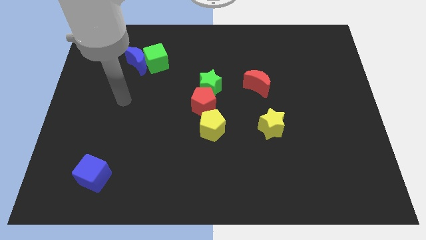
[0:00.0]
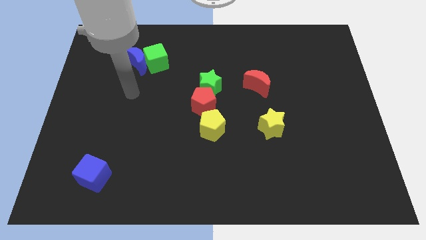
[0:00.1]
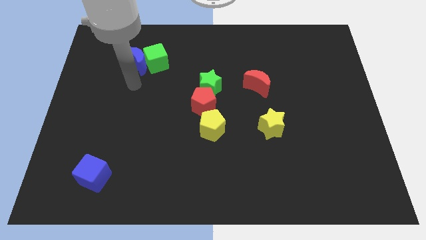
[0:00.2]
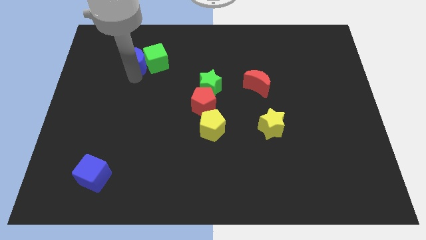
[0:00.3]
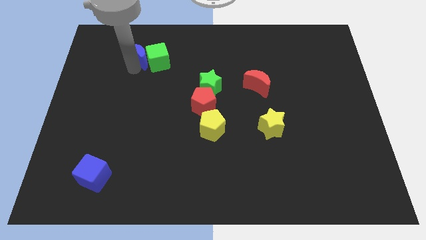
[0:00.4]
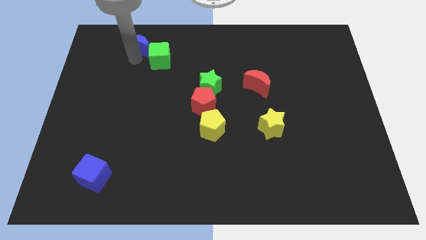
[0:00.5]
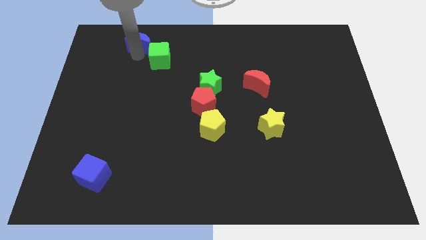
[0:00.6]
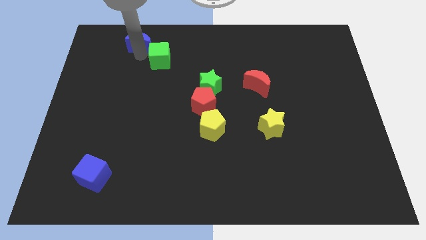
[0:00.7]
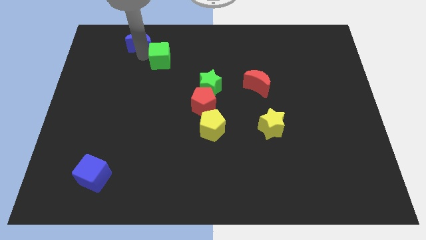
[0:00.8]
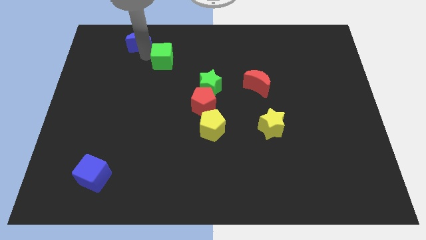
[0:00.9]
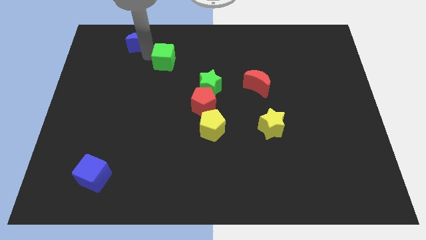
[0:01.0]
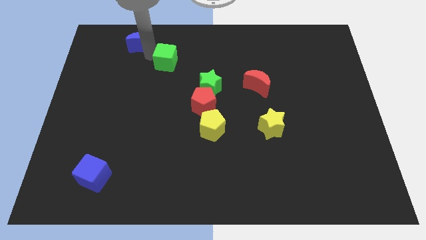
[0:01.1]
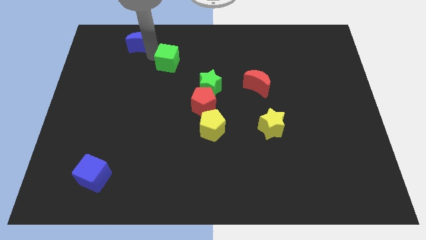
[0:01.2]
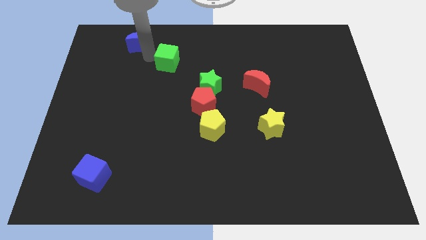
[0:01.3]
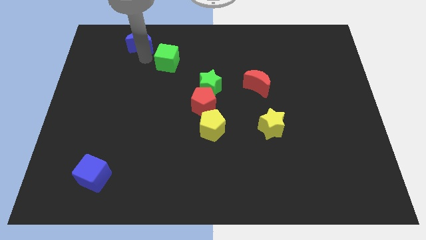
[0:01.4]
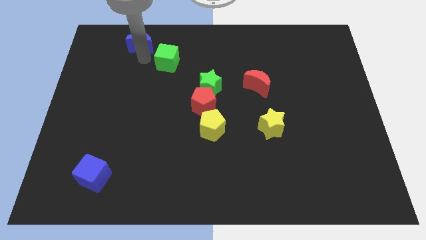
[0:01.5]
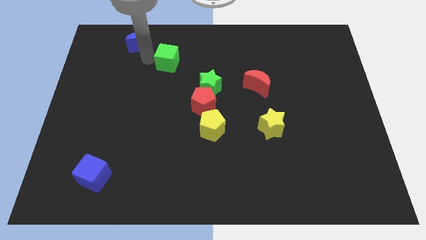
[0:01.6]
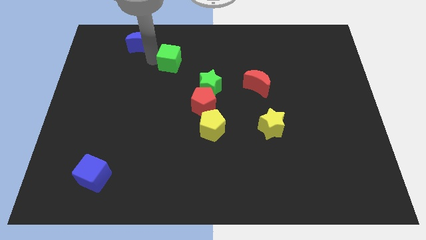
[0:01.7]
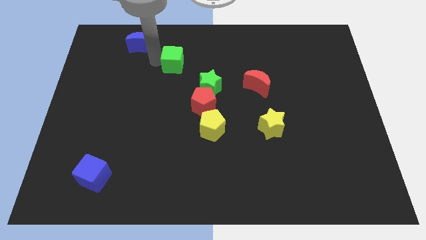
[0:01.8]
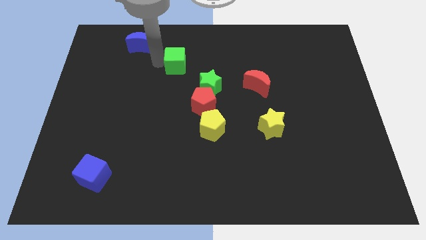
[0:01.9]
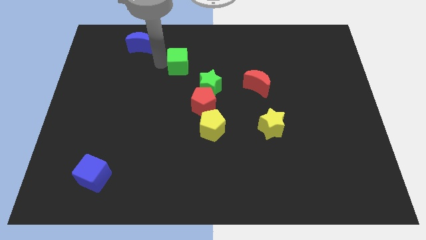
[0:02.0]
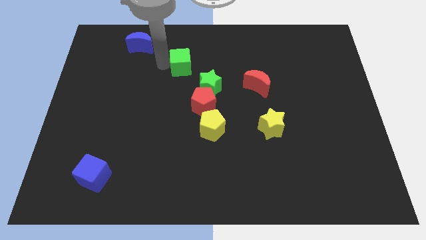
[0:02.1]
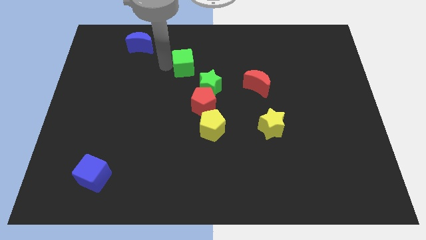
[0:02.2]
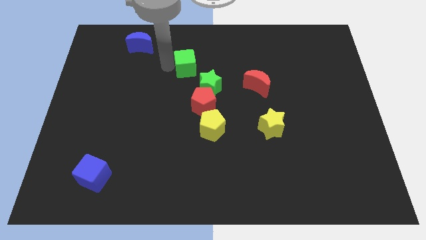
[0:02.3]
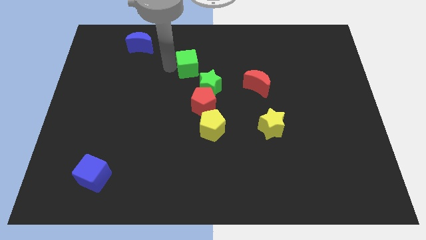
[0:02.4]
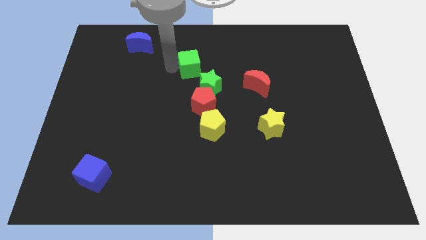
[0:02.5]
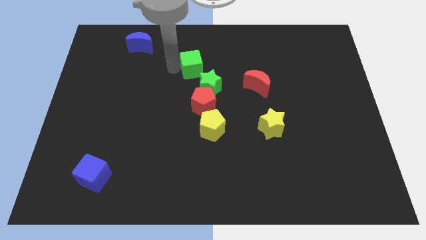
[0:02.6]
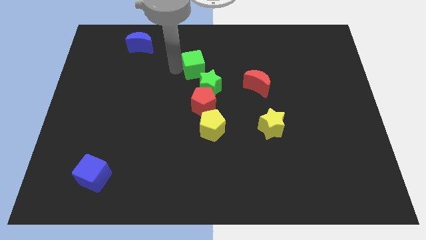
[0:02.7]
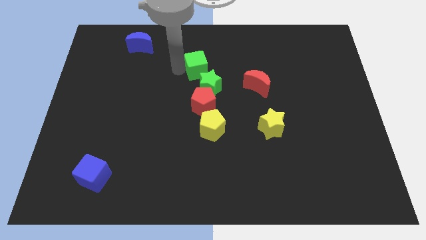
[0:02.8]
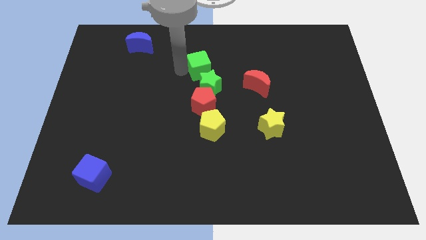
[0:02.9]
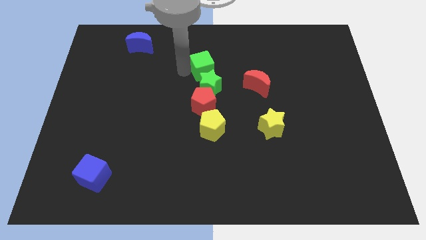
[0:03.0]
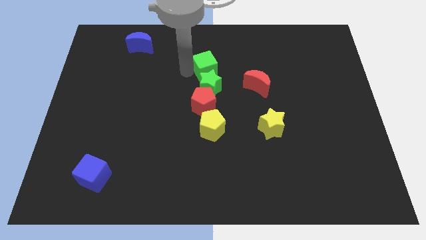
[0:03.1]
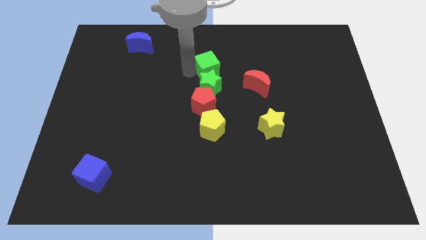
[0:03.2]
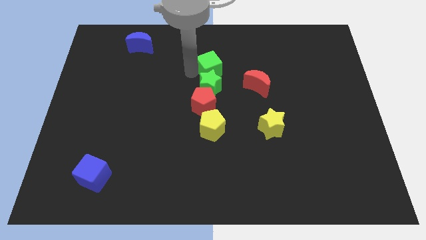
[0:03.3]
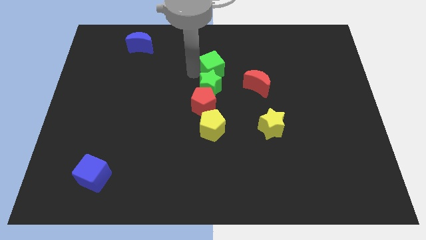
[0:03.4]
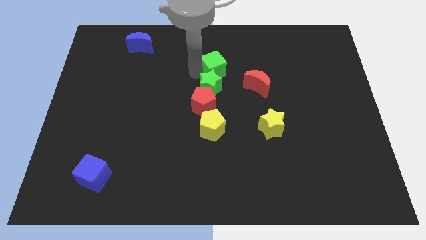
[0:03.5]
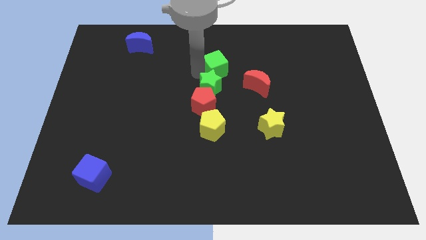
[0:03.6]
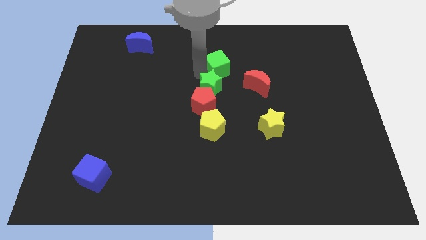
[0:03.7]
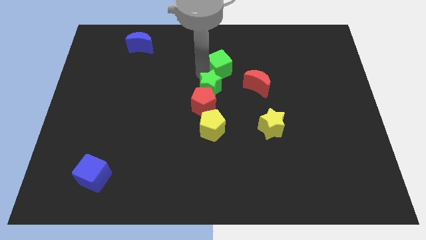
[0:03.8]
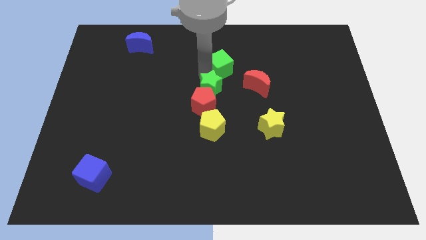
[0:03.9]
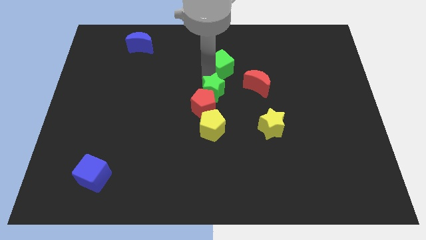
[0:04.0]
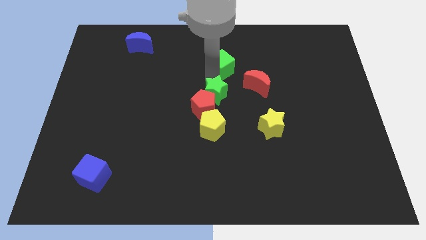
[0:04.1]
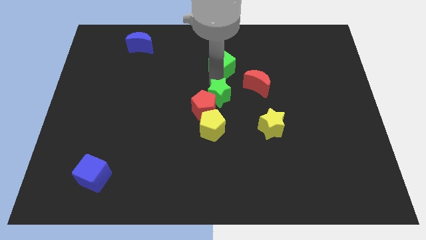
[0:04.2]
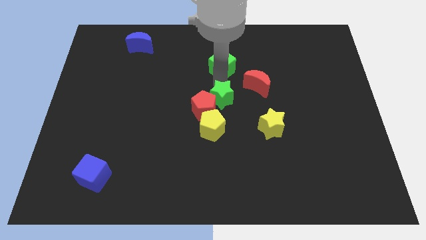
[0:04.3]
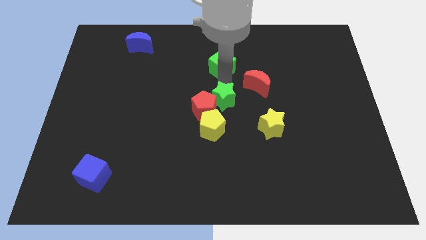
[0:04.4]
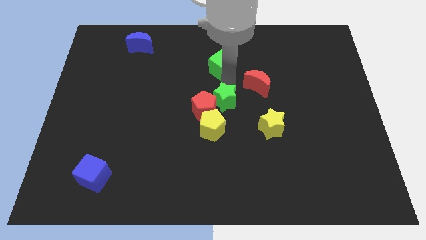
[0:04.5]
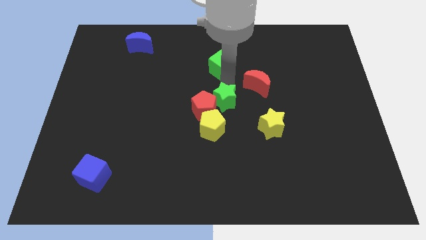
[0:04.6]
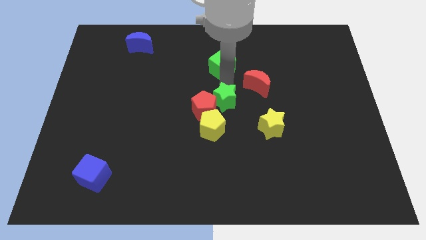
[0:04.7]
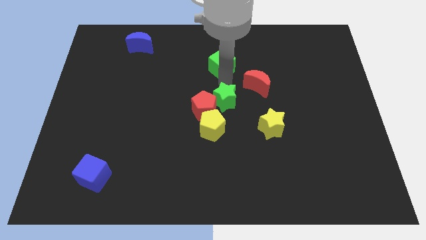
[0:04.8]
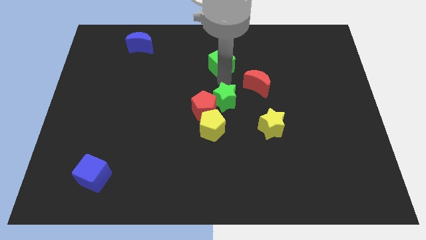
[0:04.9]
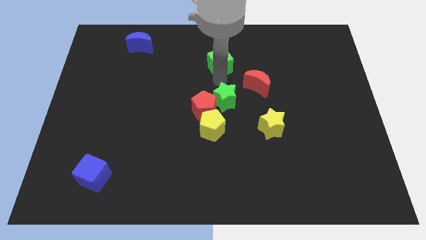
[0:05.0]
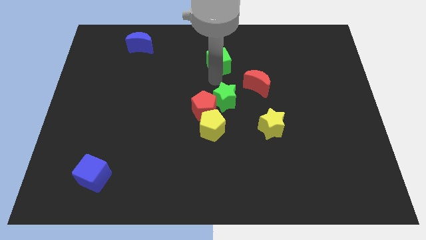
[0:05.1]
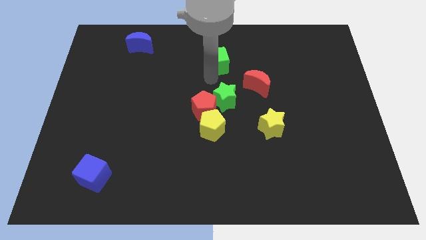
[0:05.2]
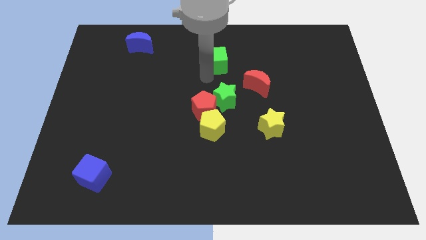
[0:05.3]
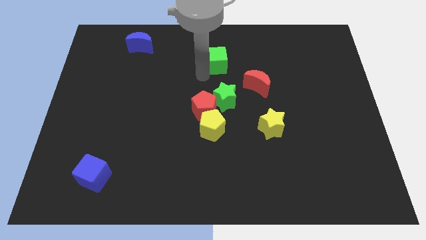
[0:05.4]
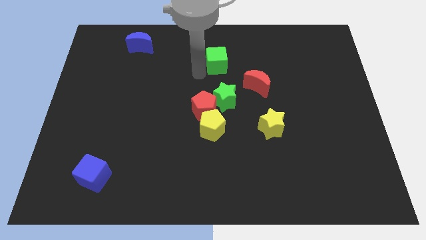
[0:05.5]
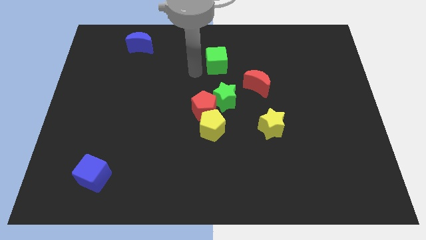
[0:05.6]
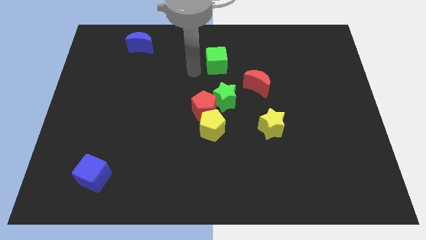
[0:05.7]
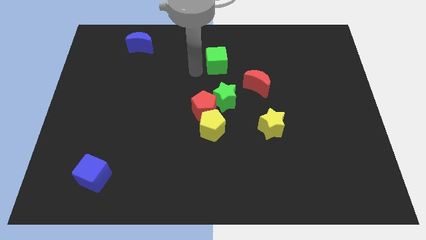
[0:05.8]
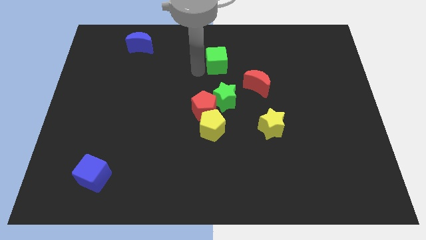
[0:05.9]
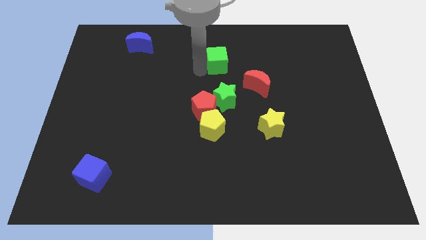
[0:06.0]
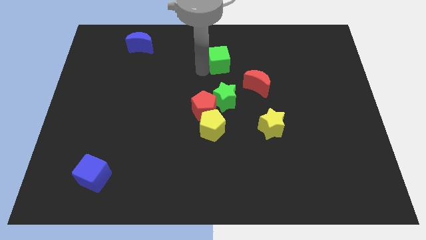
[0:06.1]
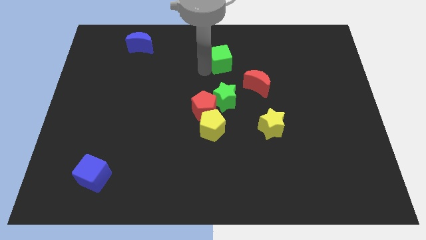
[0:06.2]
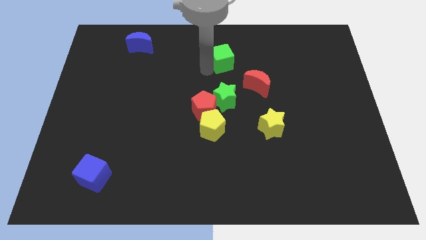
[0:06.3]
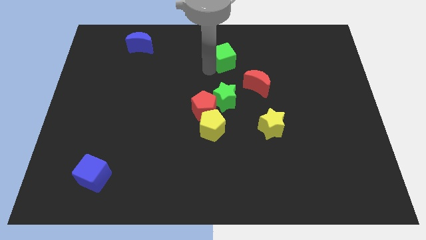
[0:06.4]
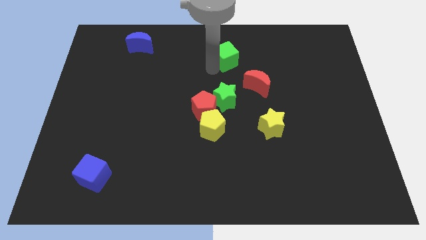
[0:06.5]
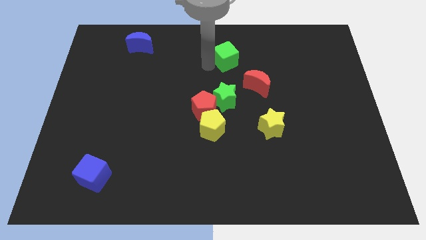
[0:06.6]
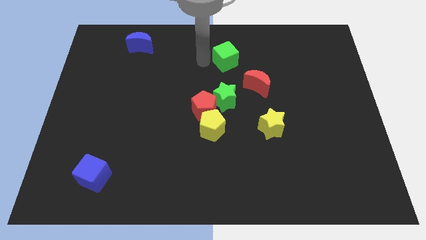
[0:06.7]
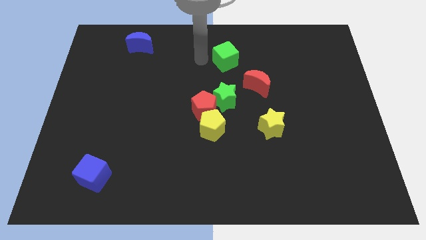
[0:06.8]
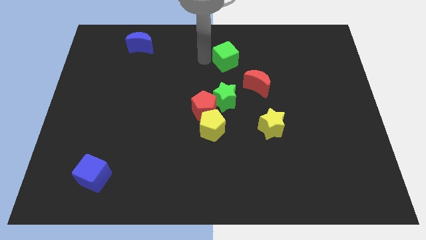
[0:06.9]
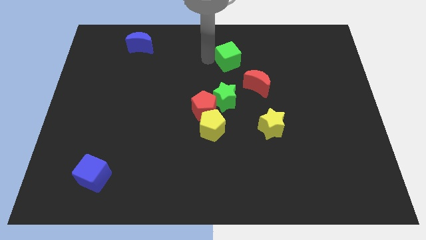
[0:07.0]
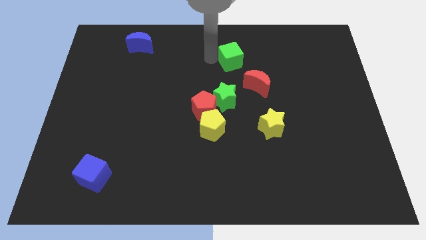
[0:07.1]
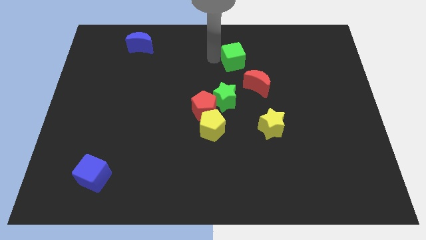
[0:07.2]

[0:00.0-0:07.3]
push the green cube to the right

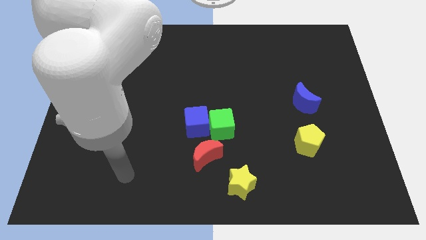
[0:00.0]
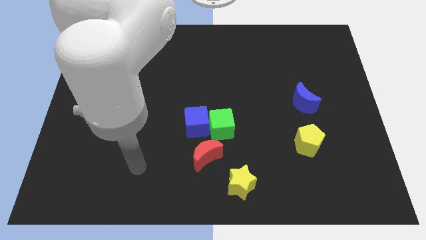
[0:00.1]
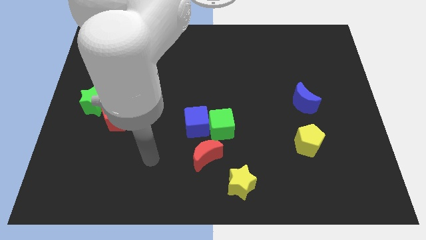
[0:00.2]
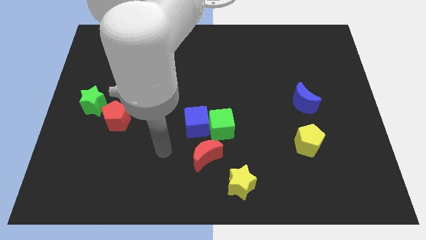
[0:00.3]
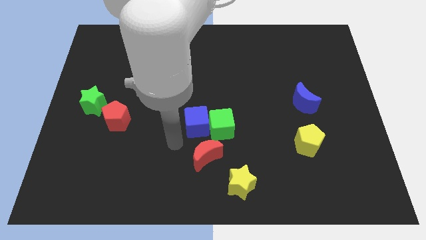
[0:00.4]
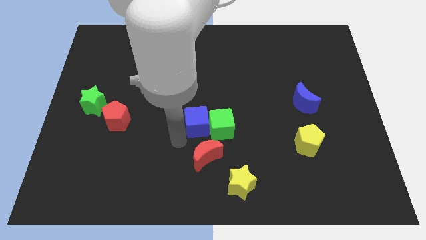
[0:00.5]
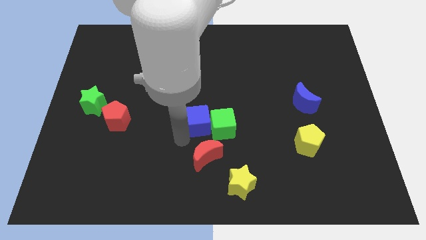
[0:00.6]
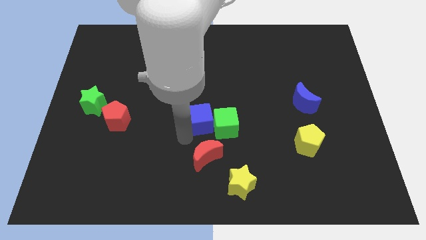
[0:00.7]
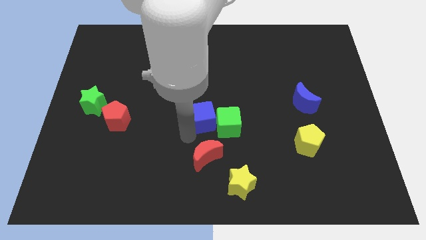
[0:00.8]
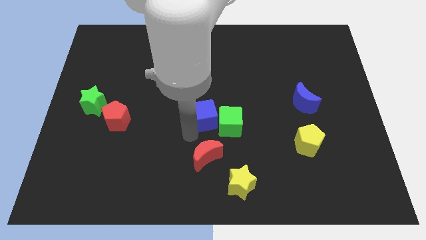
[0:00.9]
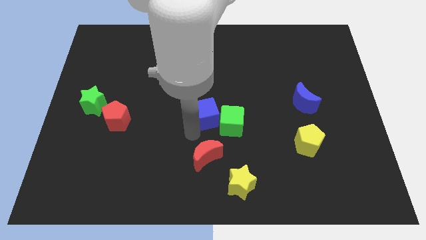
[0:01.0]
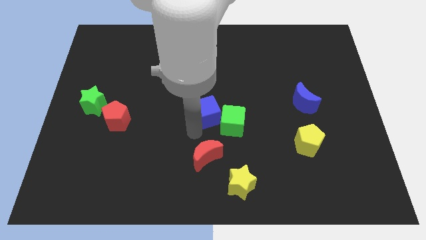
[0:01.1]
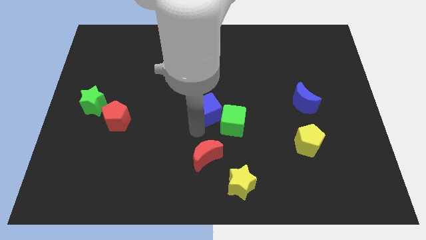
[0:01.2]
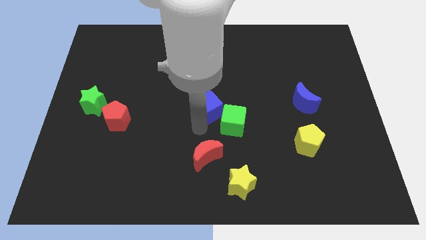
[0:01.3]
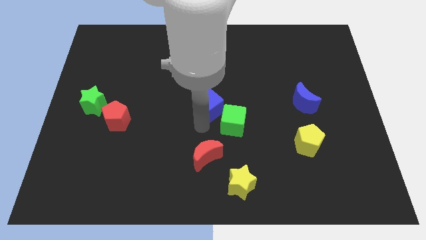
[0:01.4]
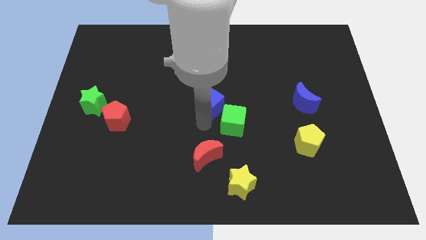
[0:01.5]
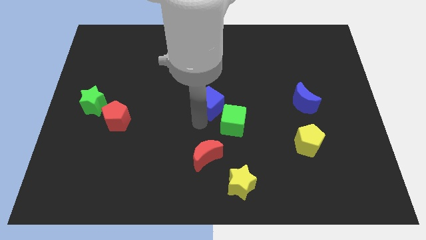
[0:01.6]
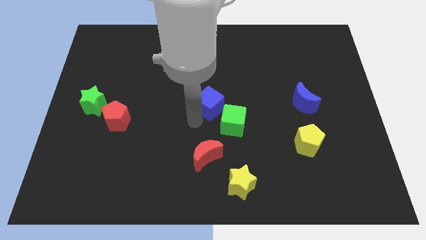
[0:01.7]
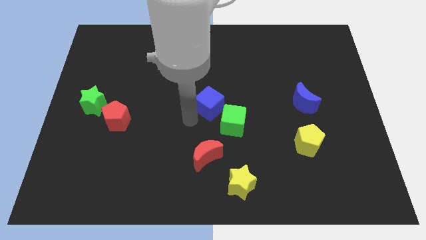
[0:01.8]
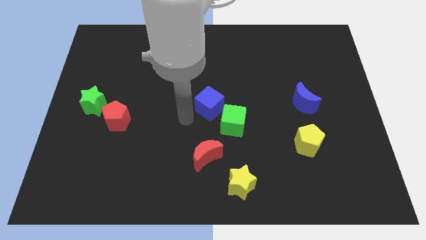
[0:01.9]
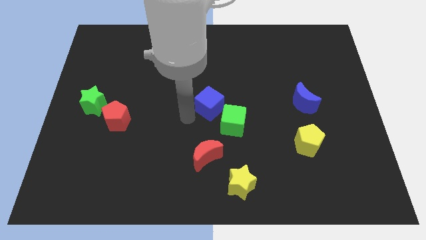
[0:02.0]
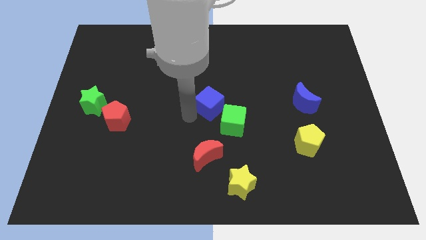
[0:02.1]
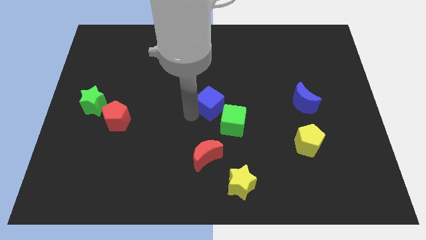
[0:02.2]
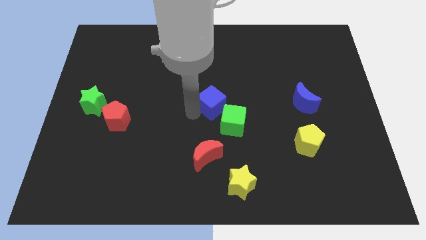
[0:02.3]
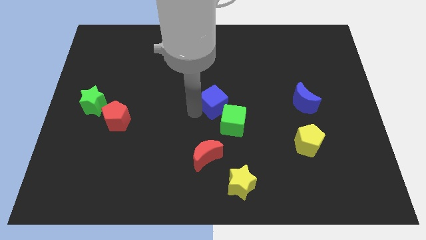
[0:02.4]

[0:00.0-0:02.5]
push the blue cube slightly upwards and right diagonally
